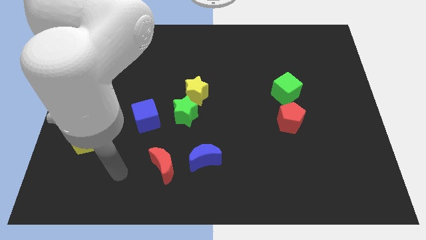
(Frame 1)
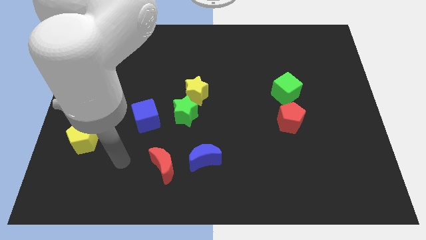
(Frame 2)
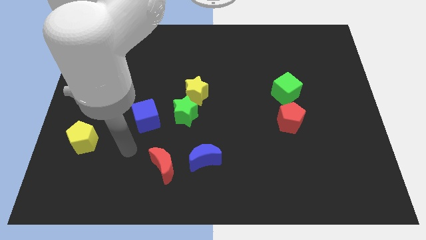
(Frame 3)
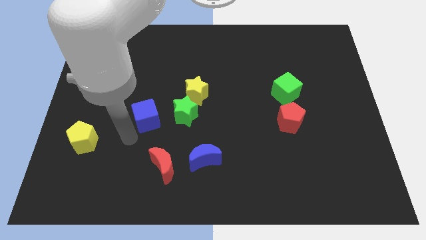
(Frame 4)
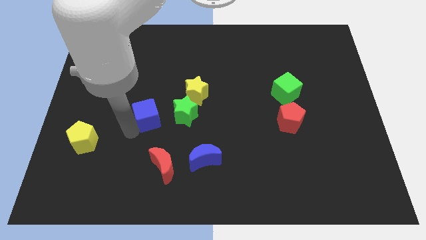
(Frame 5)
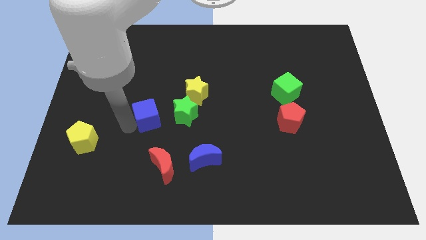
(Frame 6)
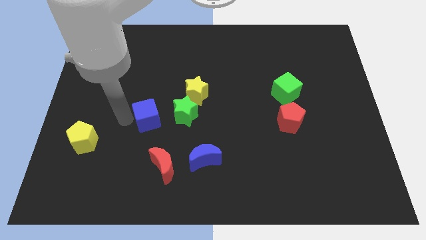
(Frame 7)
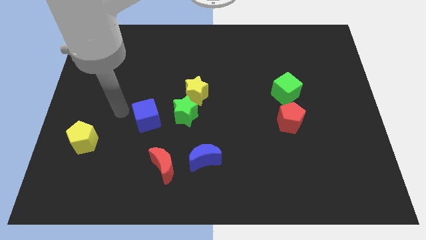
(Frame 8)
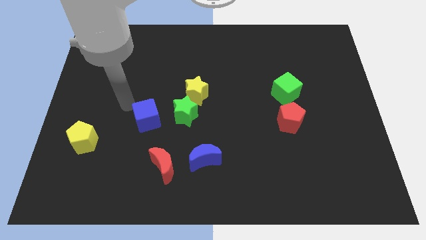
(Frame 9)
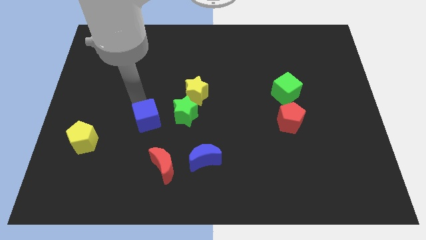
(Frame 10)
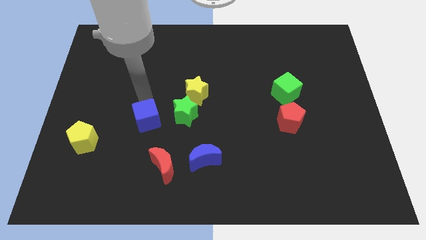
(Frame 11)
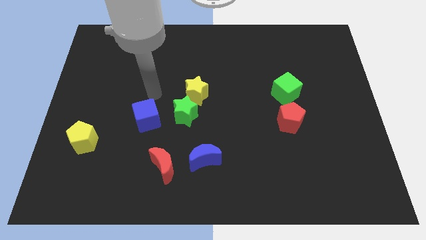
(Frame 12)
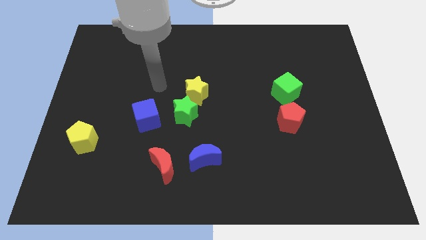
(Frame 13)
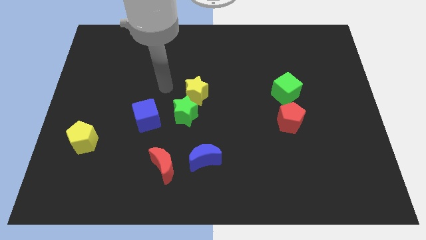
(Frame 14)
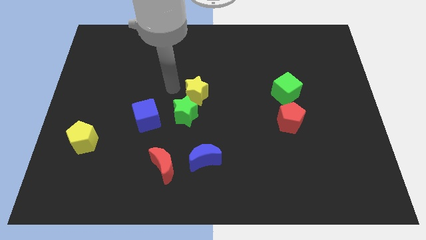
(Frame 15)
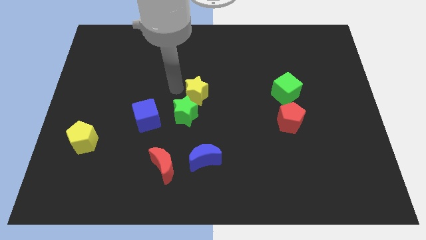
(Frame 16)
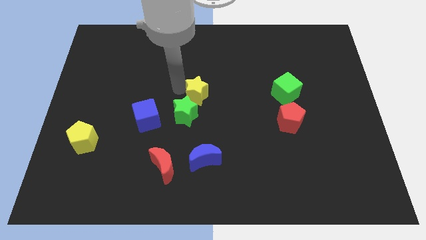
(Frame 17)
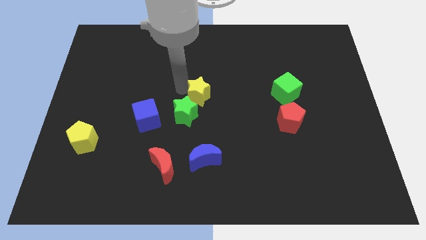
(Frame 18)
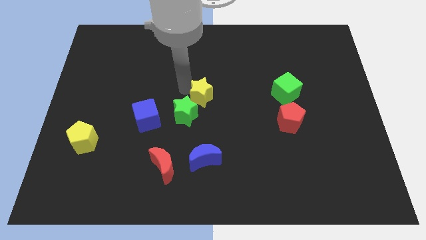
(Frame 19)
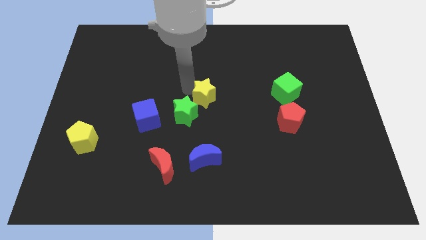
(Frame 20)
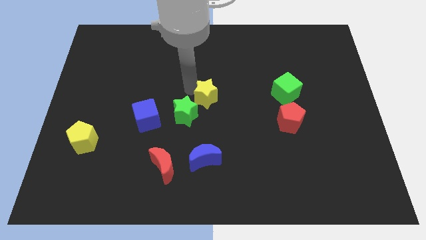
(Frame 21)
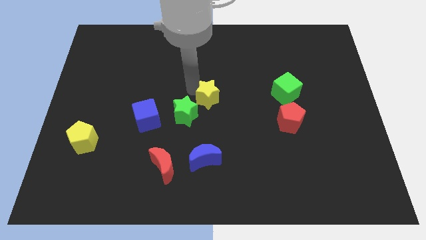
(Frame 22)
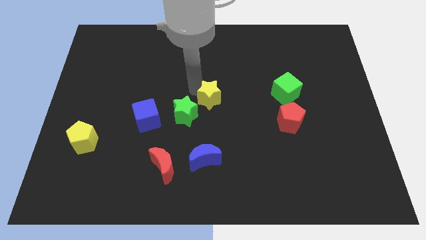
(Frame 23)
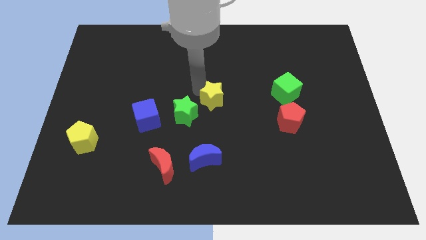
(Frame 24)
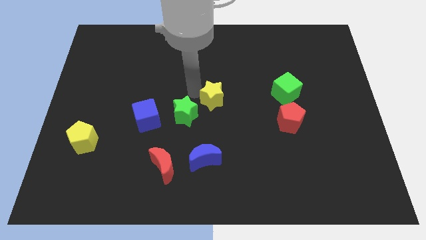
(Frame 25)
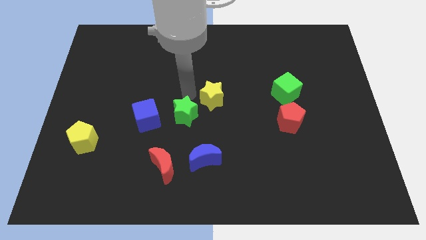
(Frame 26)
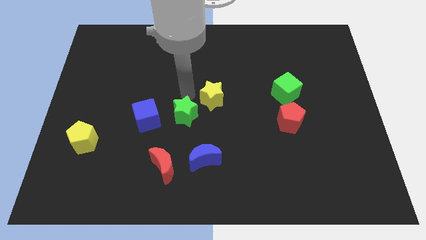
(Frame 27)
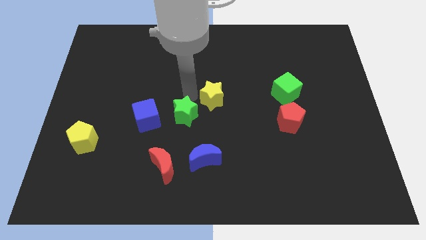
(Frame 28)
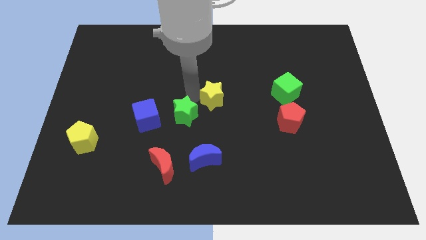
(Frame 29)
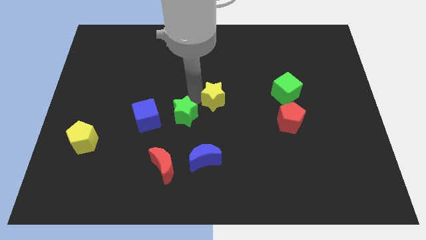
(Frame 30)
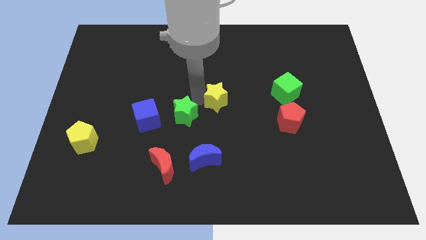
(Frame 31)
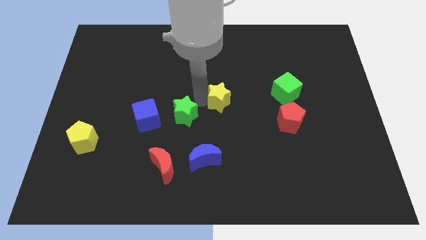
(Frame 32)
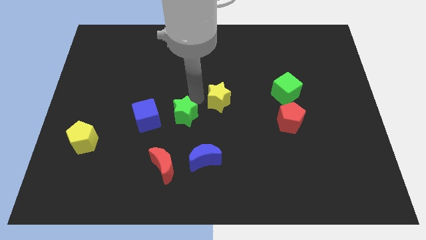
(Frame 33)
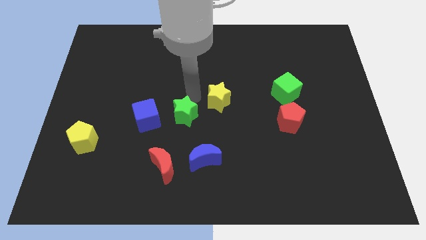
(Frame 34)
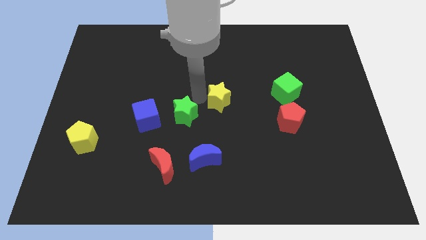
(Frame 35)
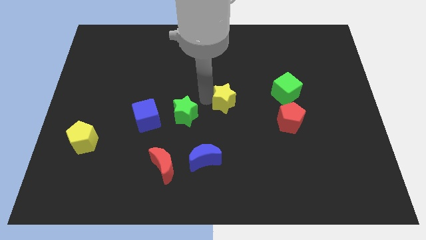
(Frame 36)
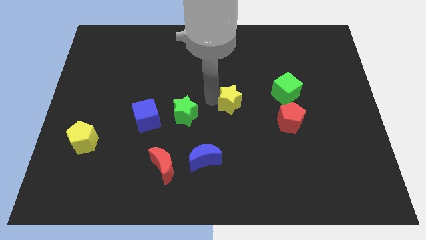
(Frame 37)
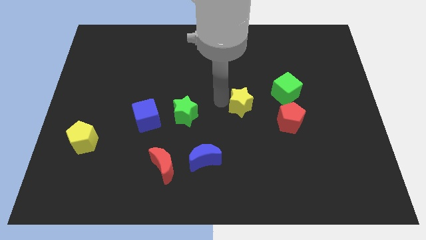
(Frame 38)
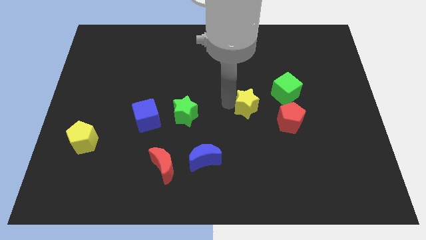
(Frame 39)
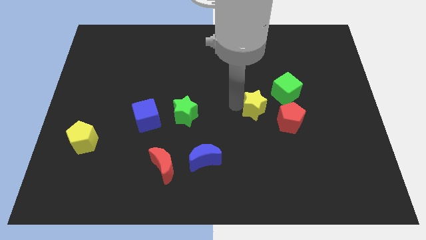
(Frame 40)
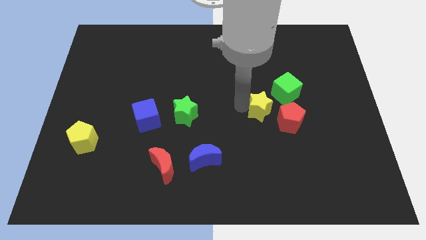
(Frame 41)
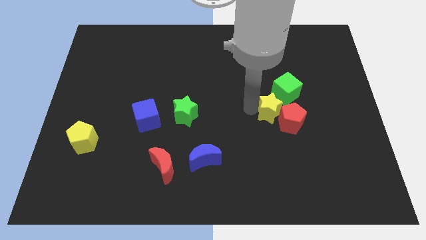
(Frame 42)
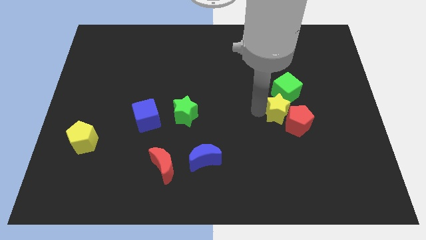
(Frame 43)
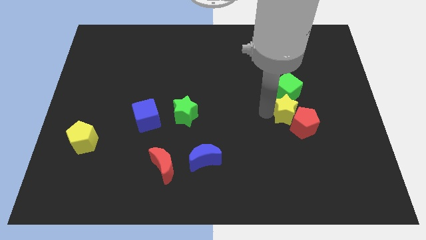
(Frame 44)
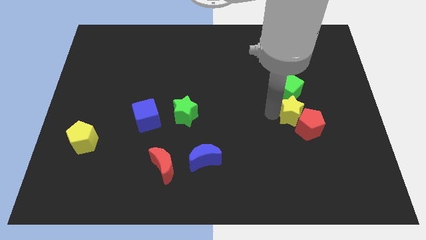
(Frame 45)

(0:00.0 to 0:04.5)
push the yellow star to the right

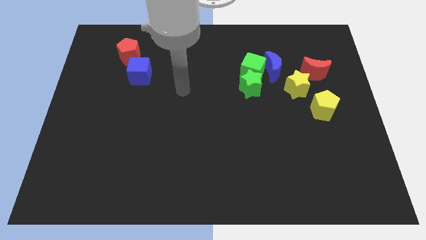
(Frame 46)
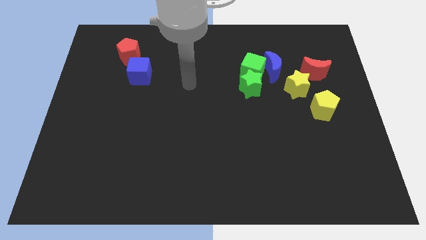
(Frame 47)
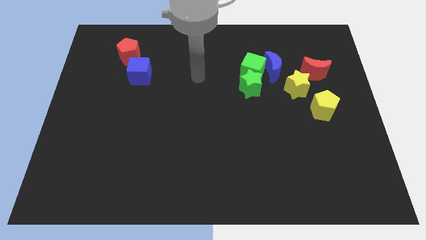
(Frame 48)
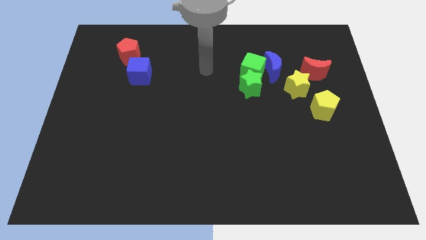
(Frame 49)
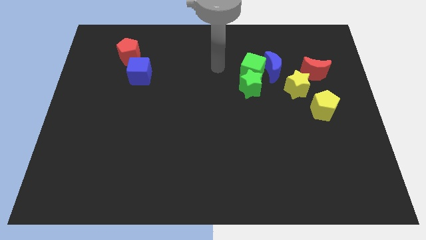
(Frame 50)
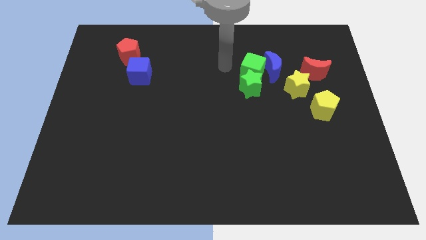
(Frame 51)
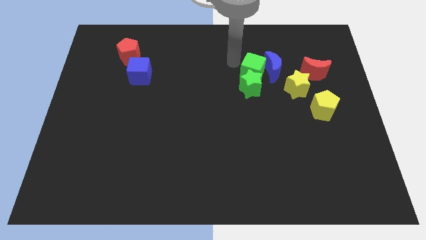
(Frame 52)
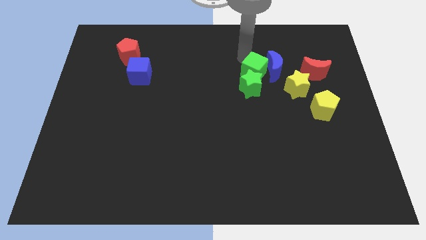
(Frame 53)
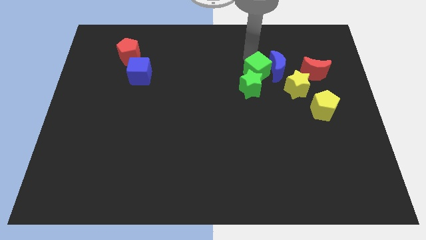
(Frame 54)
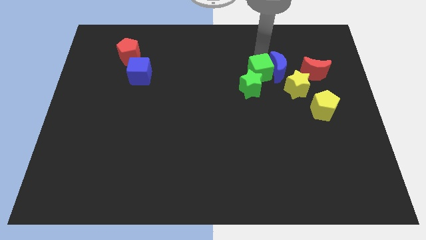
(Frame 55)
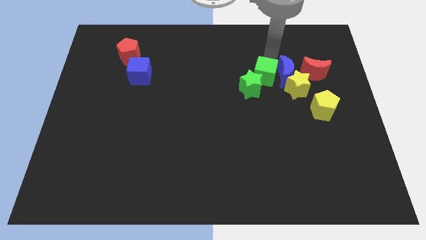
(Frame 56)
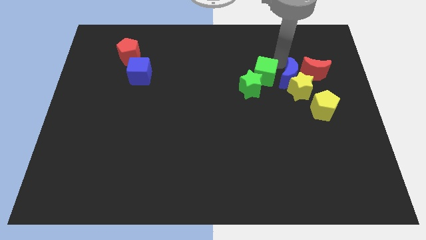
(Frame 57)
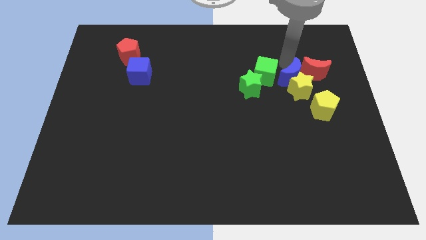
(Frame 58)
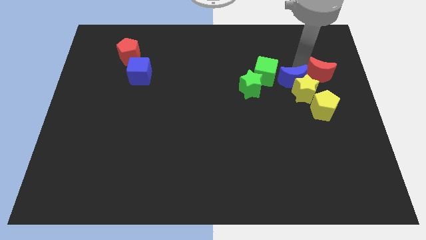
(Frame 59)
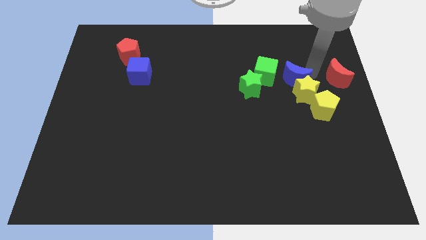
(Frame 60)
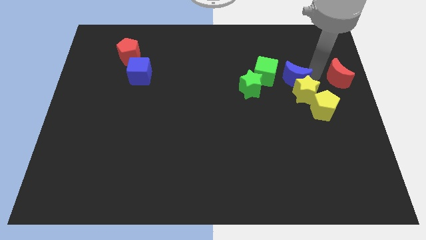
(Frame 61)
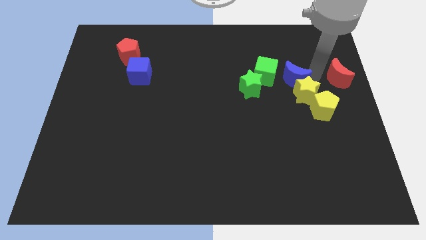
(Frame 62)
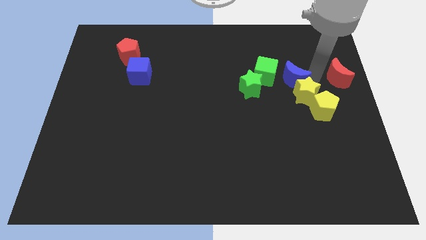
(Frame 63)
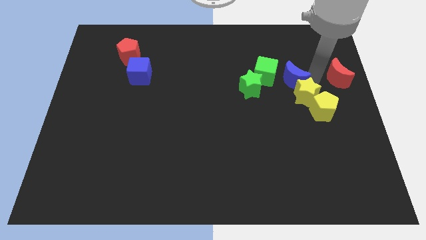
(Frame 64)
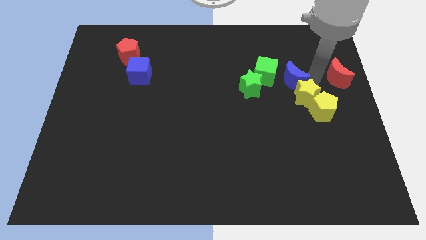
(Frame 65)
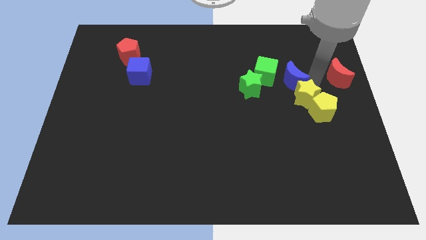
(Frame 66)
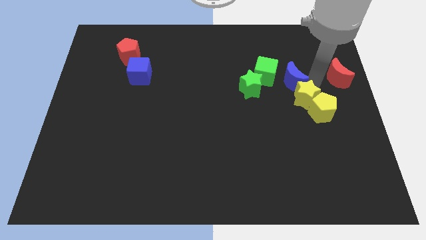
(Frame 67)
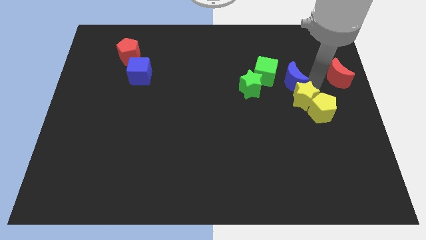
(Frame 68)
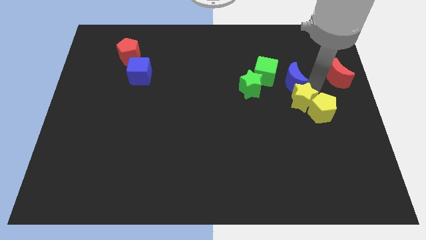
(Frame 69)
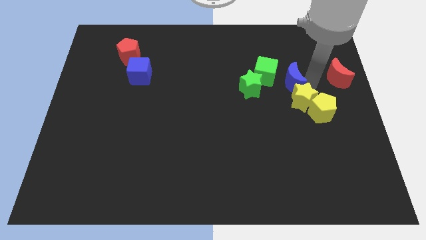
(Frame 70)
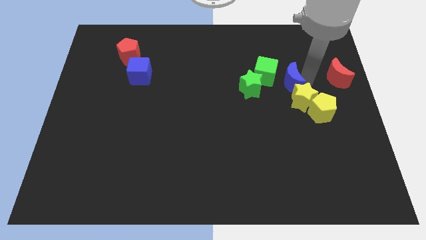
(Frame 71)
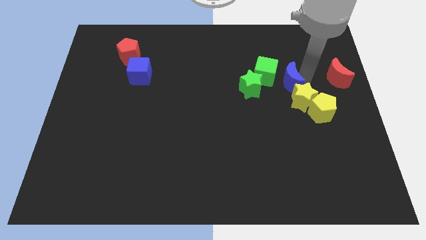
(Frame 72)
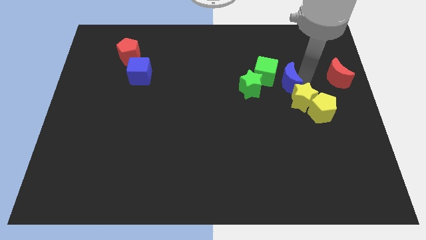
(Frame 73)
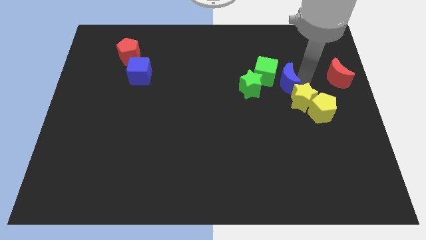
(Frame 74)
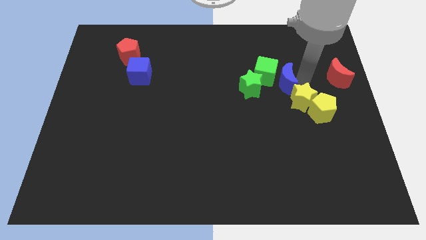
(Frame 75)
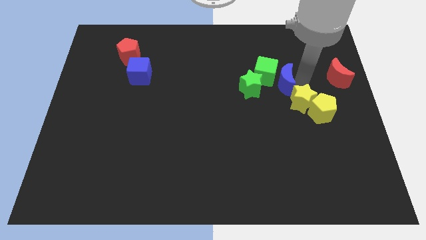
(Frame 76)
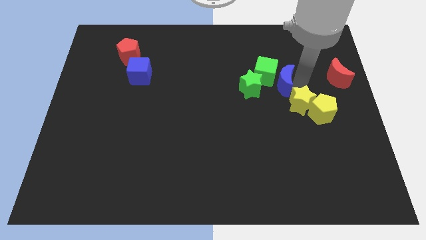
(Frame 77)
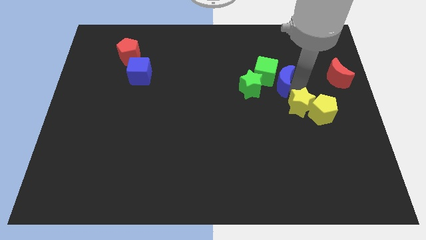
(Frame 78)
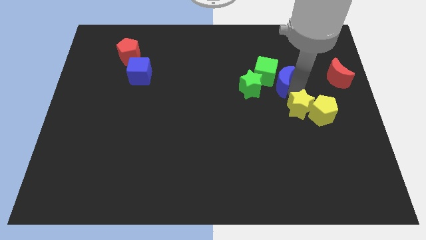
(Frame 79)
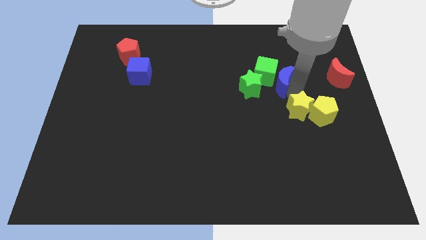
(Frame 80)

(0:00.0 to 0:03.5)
move the yellow star down slightly
